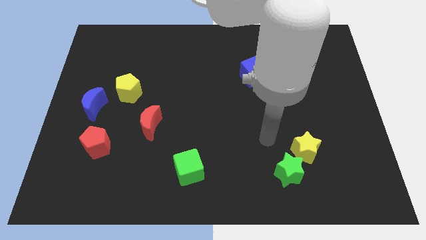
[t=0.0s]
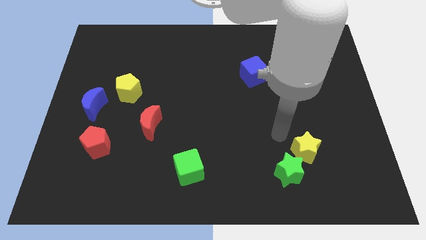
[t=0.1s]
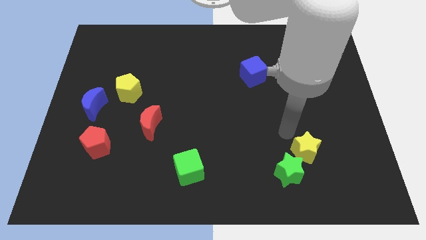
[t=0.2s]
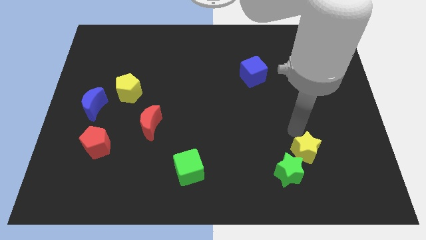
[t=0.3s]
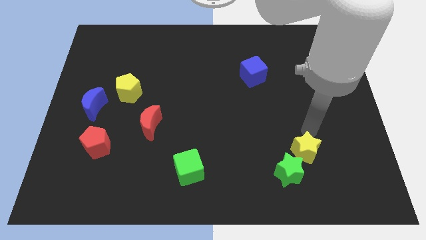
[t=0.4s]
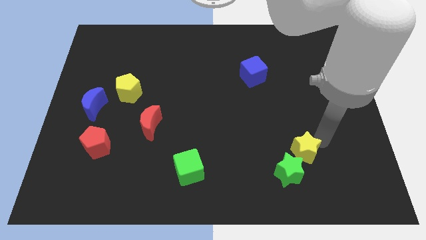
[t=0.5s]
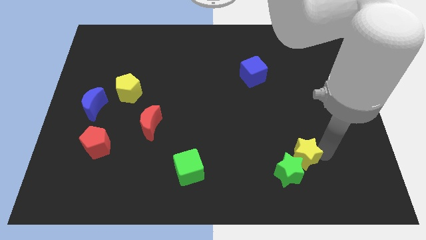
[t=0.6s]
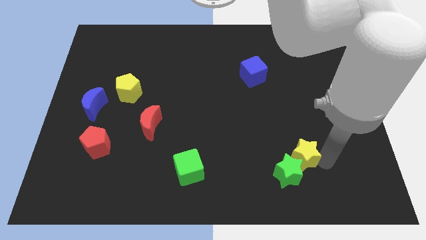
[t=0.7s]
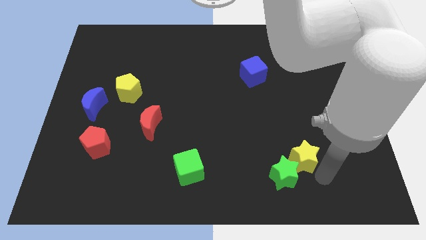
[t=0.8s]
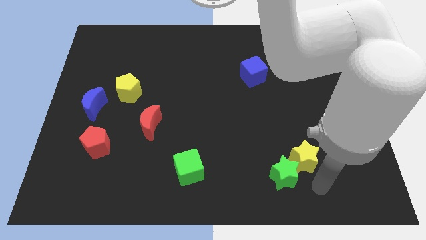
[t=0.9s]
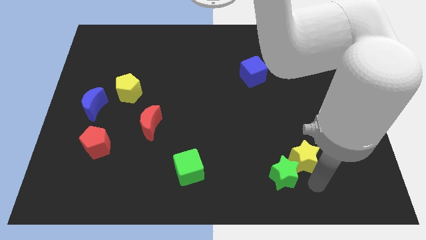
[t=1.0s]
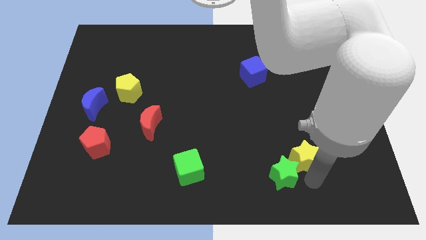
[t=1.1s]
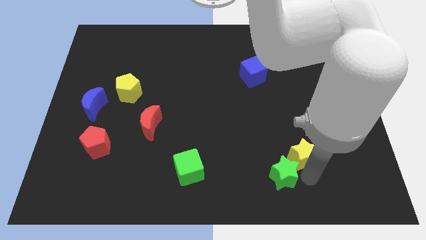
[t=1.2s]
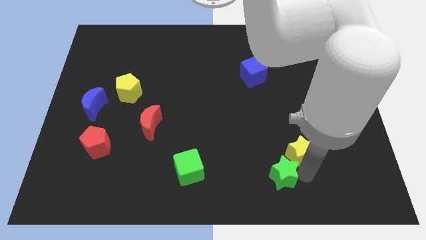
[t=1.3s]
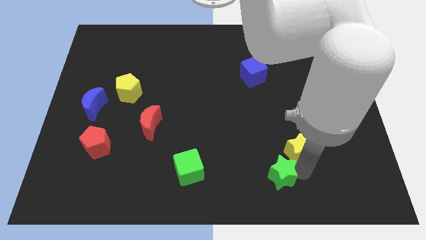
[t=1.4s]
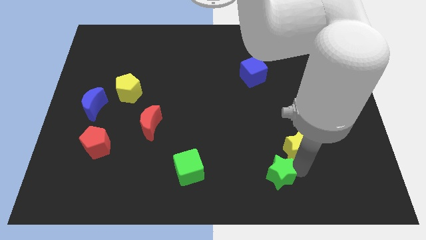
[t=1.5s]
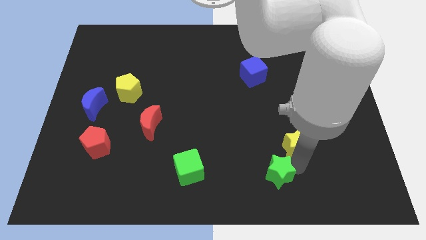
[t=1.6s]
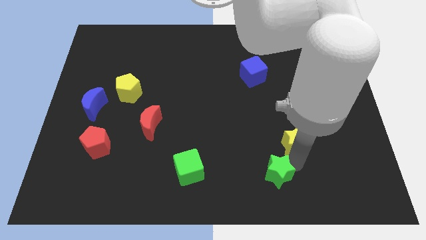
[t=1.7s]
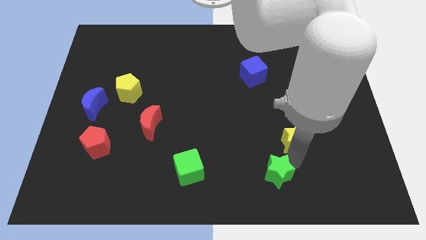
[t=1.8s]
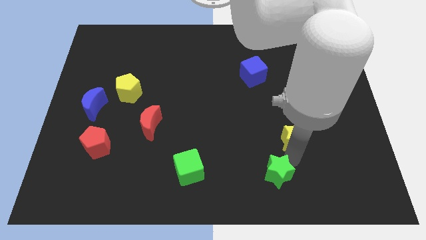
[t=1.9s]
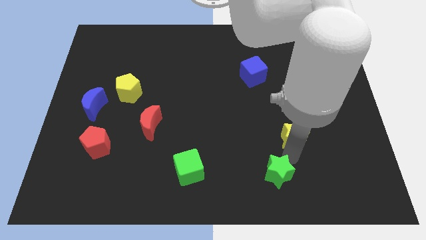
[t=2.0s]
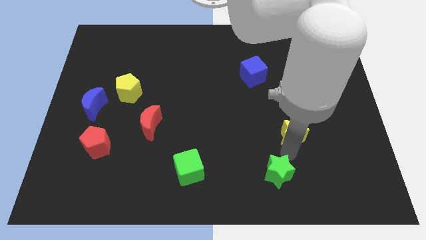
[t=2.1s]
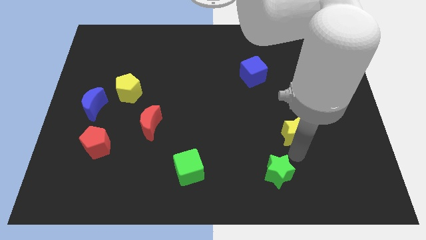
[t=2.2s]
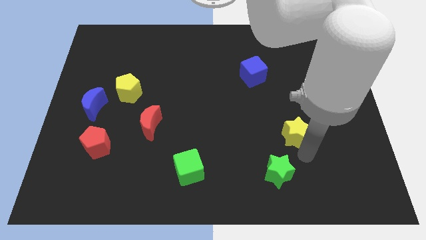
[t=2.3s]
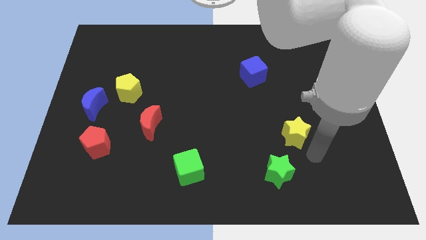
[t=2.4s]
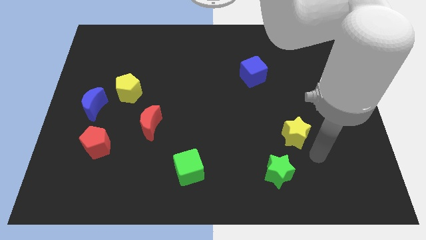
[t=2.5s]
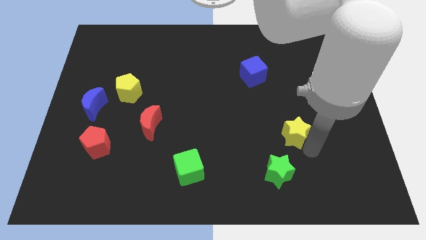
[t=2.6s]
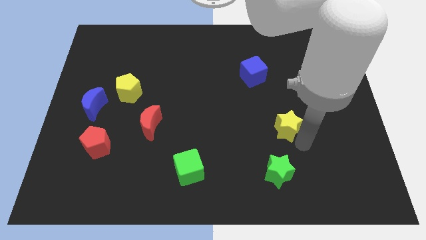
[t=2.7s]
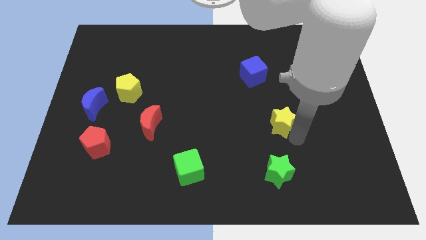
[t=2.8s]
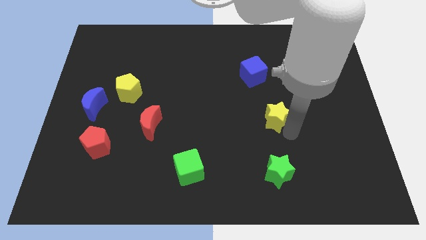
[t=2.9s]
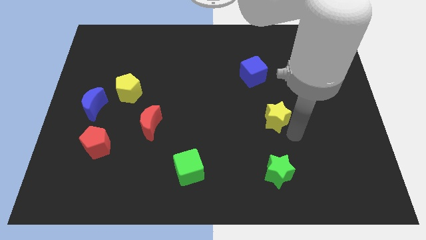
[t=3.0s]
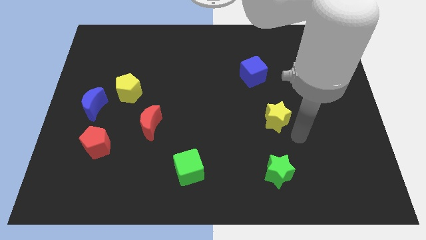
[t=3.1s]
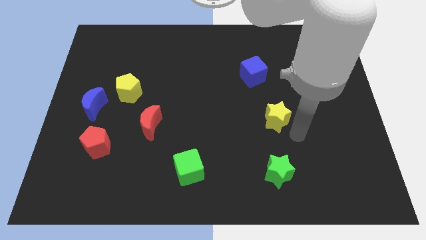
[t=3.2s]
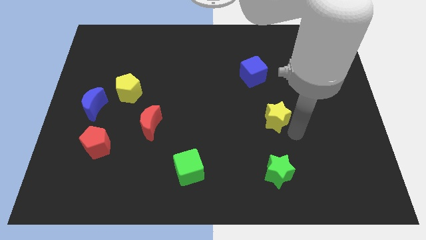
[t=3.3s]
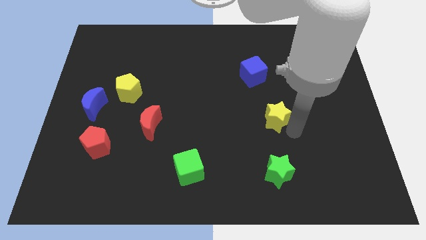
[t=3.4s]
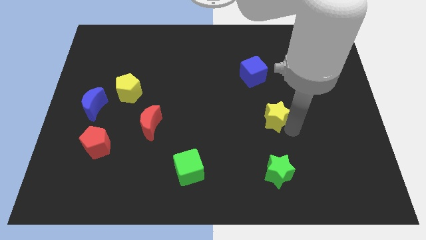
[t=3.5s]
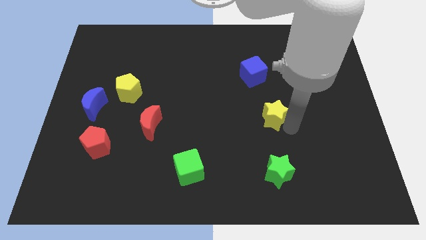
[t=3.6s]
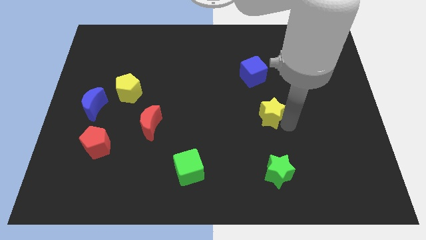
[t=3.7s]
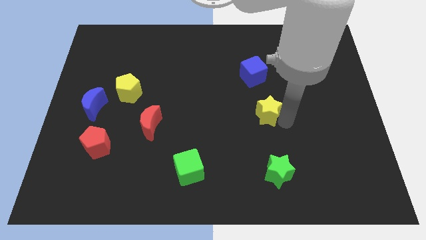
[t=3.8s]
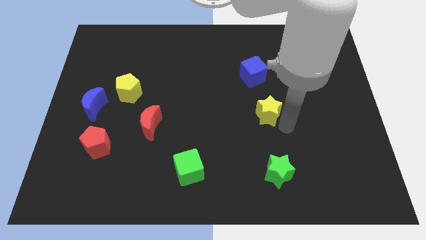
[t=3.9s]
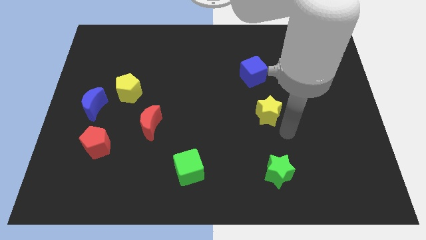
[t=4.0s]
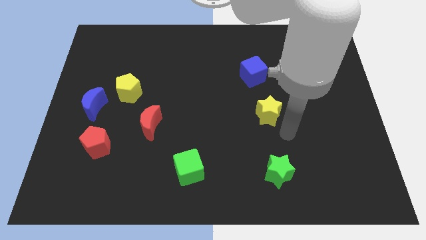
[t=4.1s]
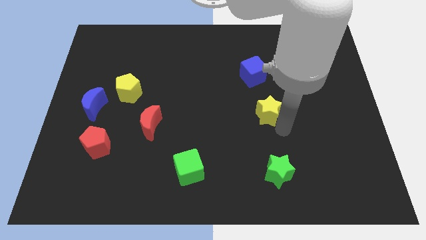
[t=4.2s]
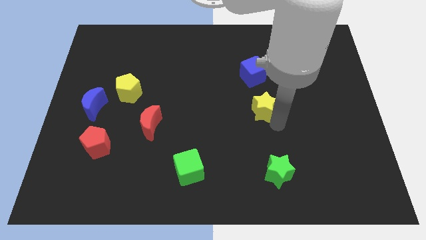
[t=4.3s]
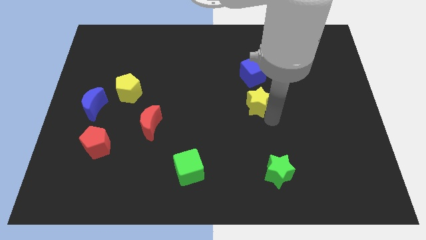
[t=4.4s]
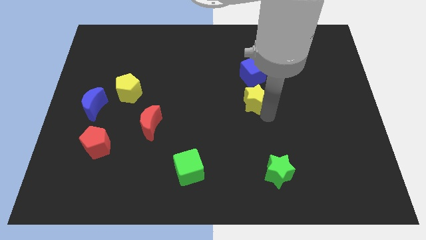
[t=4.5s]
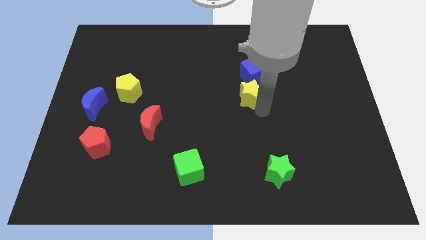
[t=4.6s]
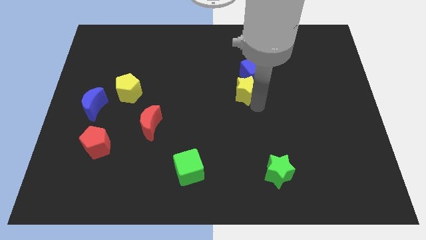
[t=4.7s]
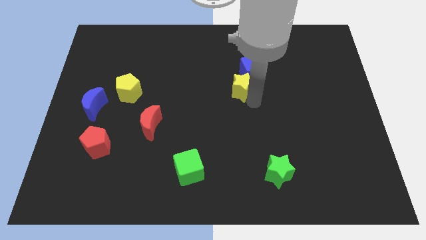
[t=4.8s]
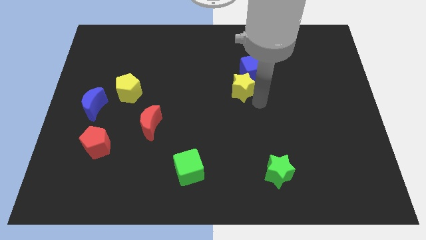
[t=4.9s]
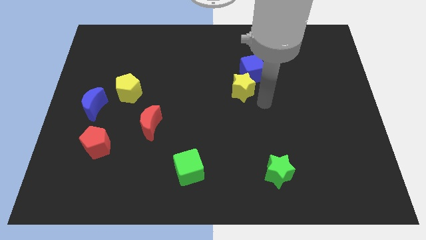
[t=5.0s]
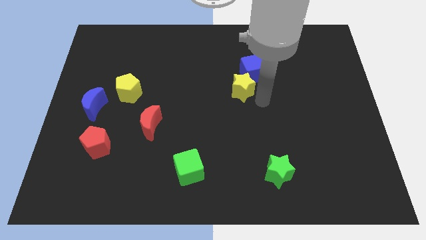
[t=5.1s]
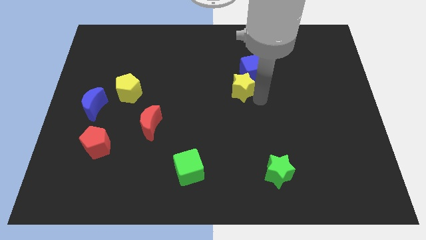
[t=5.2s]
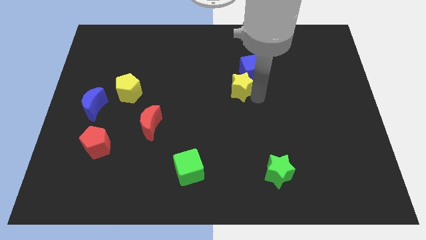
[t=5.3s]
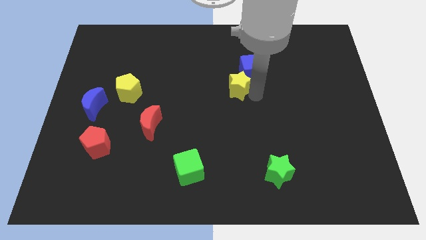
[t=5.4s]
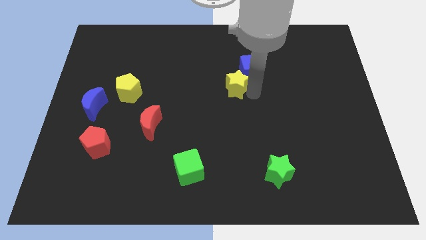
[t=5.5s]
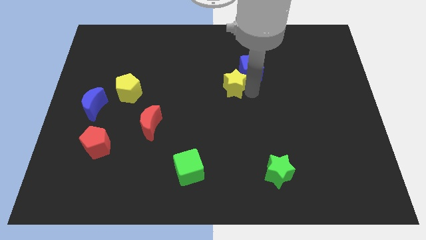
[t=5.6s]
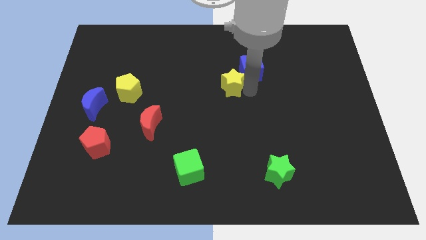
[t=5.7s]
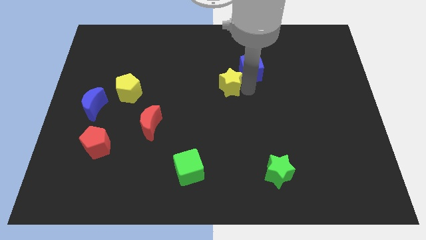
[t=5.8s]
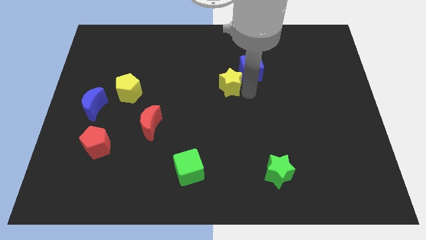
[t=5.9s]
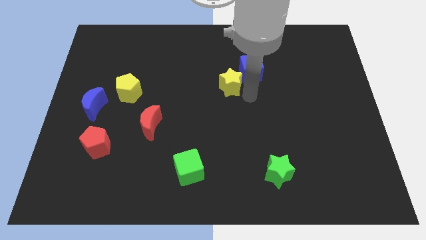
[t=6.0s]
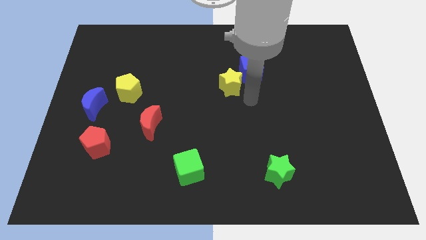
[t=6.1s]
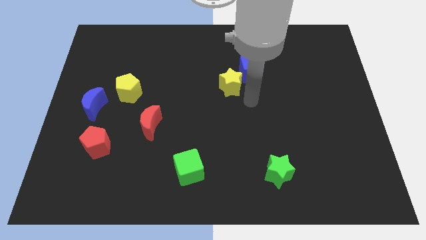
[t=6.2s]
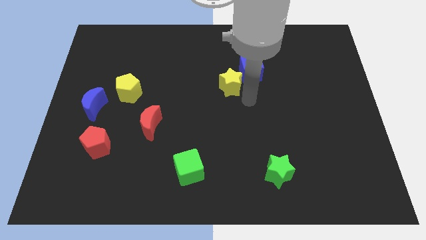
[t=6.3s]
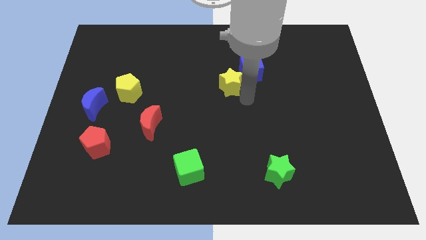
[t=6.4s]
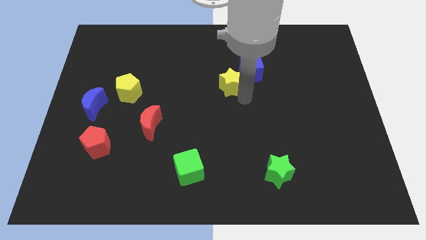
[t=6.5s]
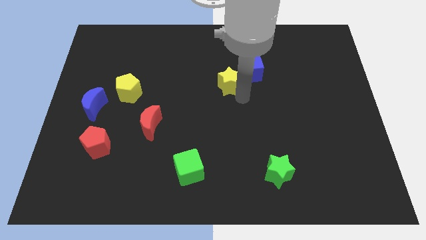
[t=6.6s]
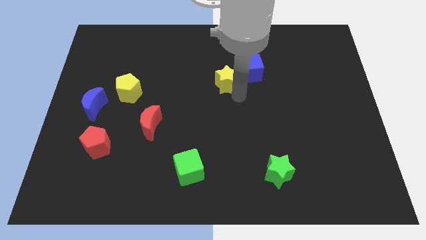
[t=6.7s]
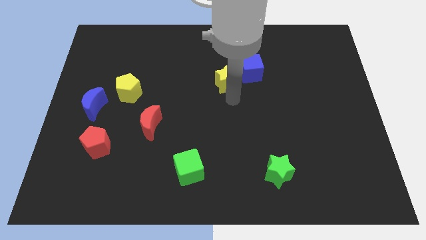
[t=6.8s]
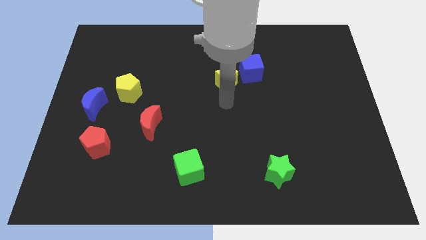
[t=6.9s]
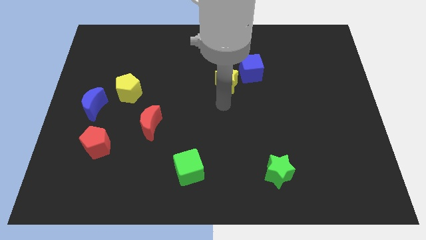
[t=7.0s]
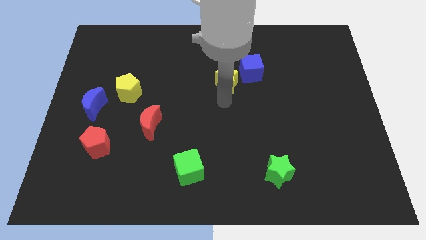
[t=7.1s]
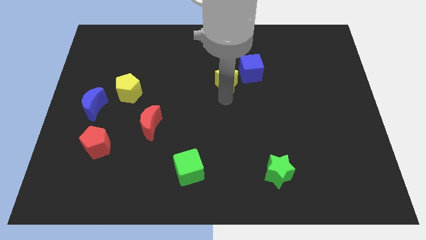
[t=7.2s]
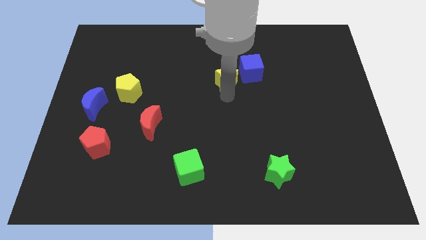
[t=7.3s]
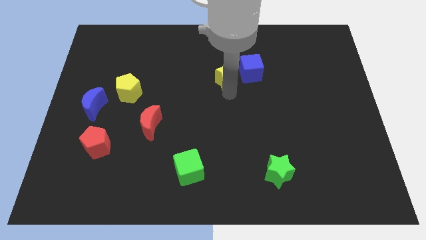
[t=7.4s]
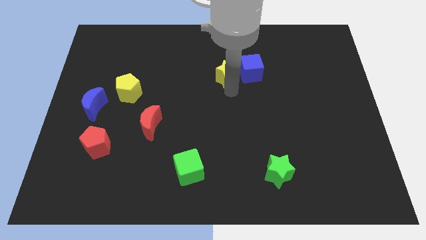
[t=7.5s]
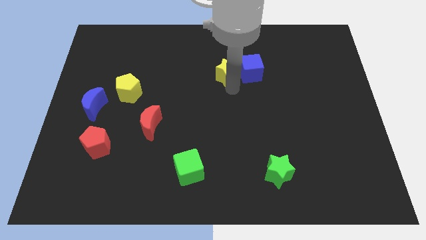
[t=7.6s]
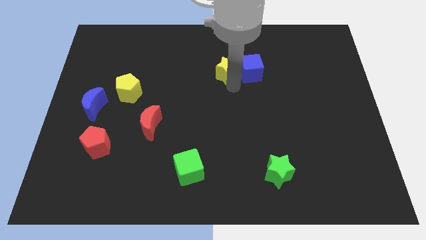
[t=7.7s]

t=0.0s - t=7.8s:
push the yellow star diagonally up and to the left of the blue cube
